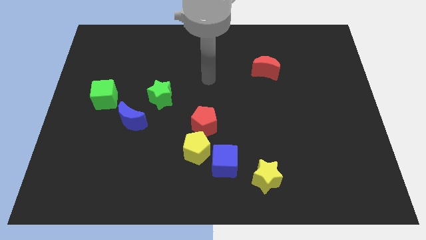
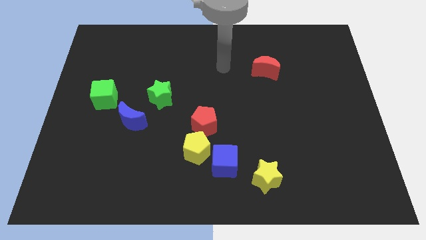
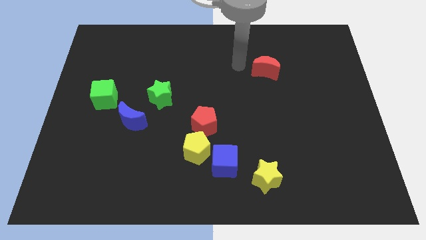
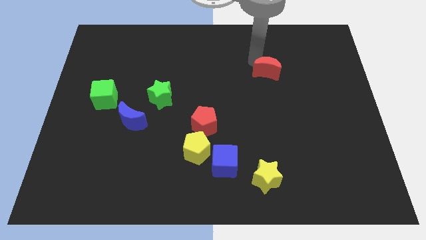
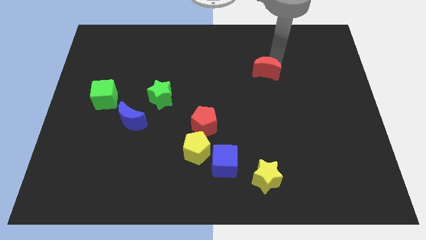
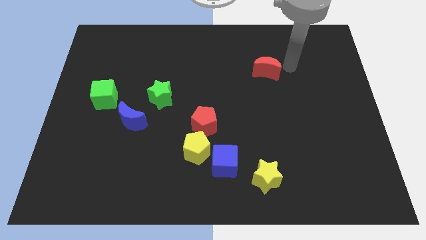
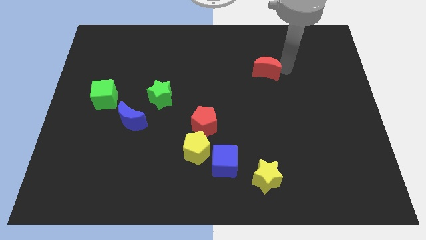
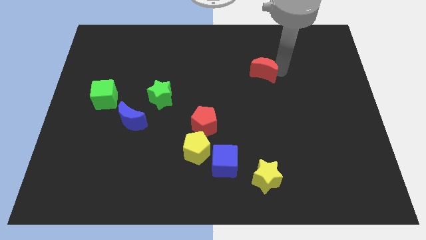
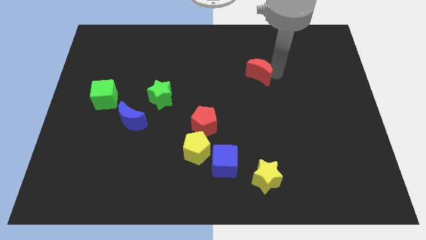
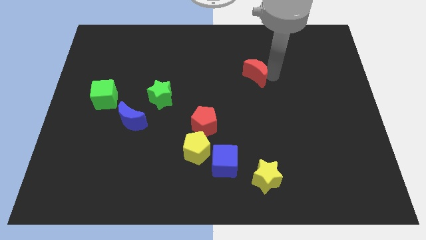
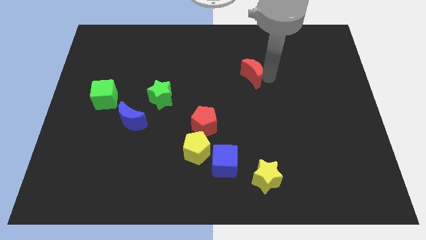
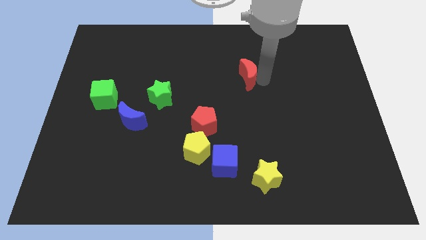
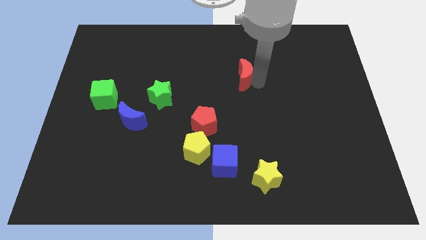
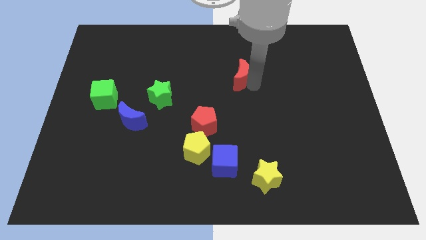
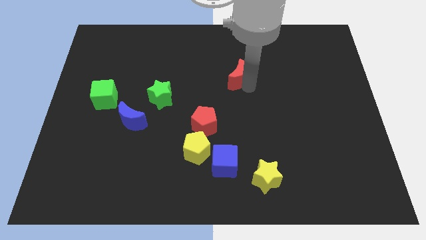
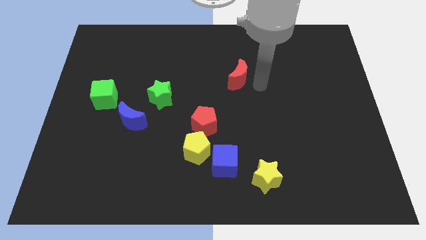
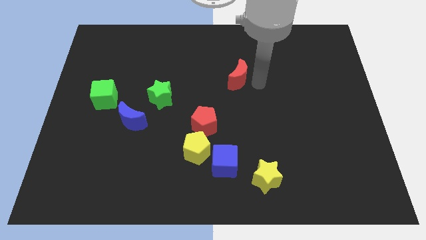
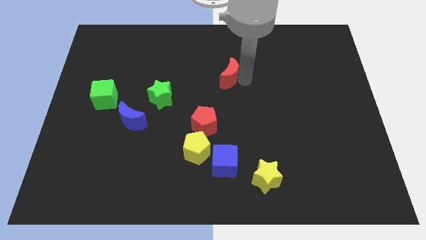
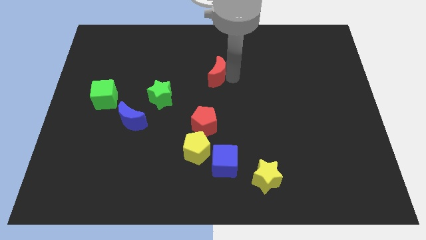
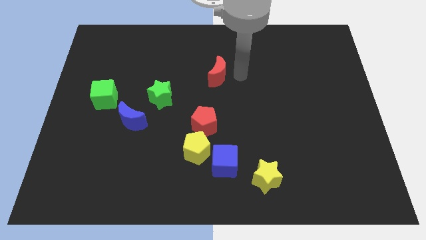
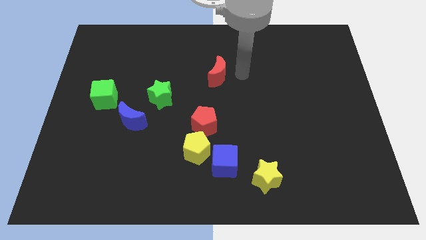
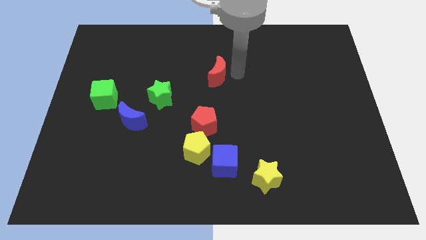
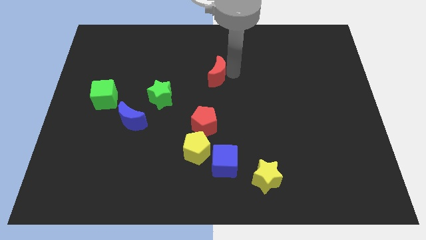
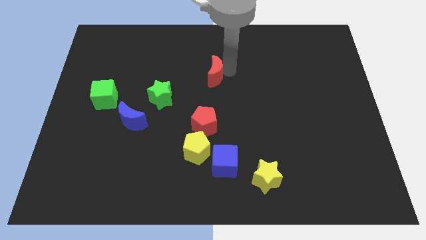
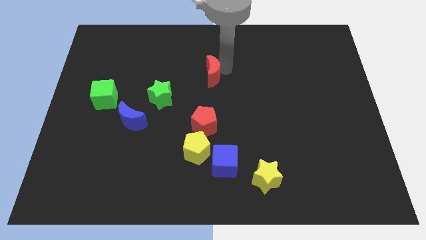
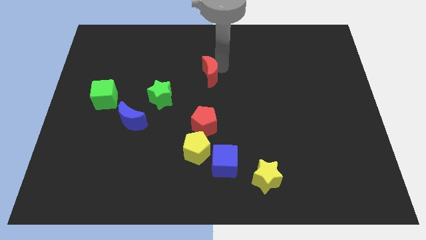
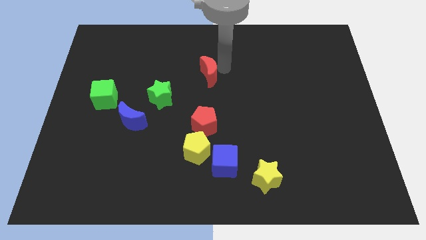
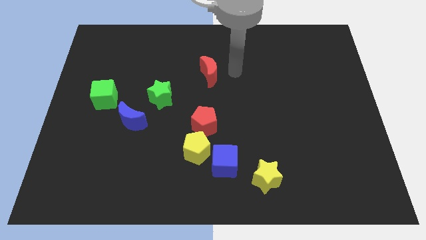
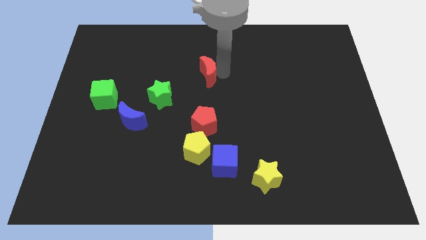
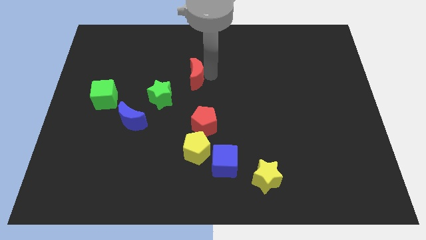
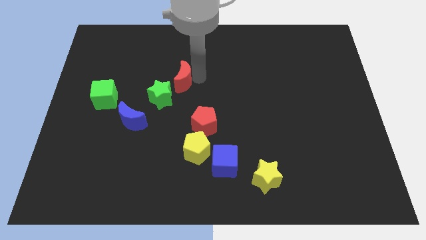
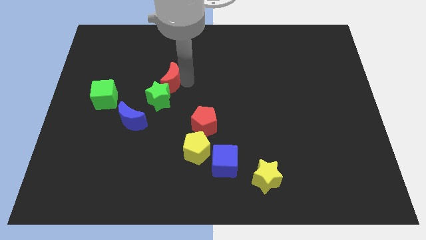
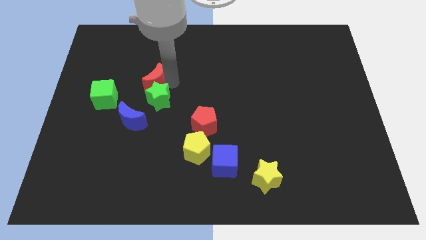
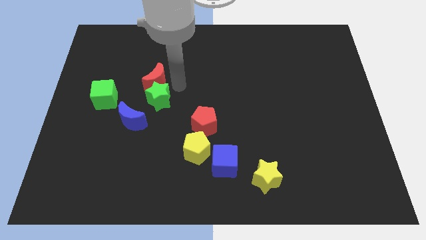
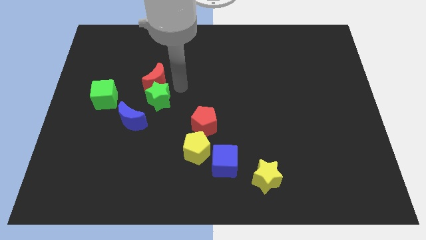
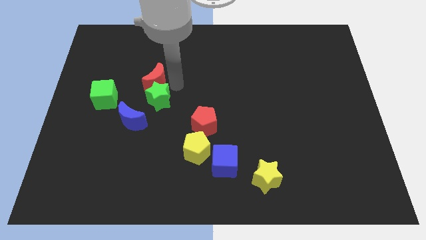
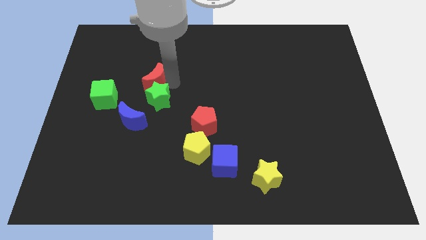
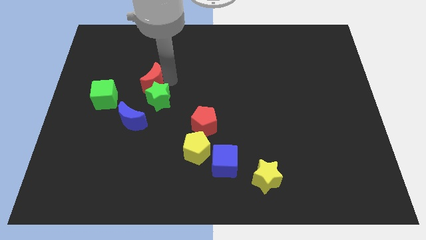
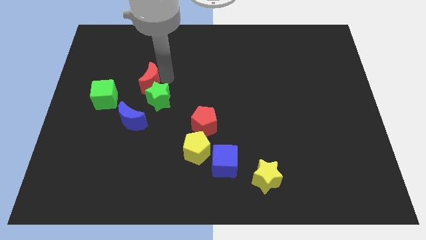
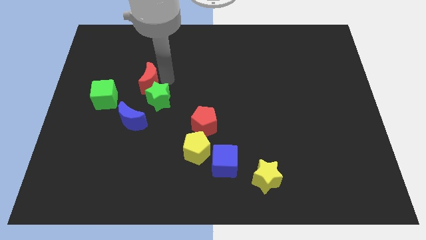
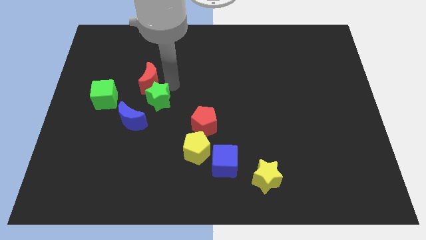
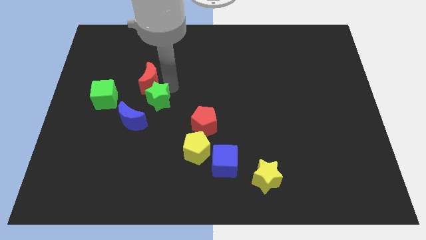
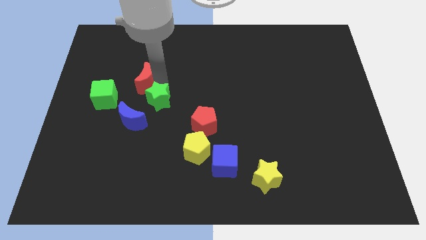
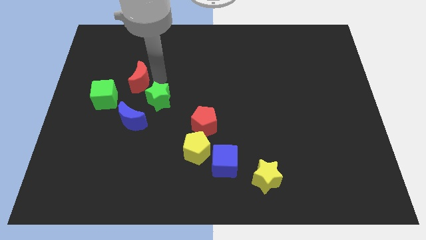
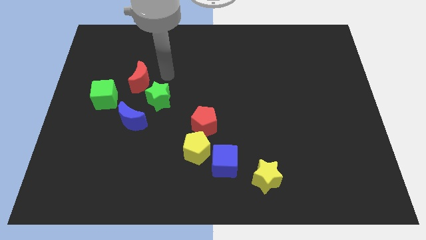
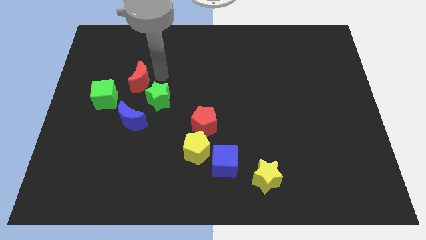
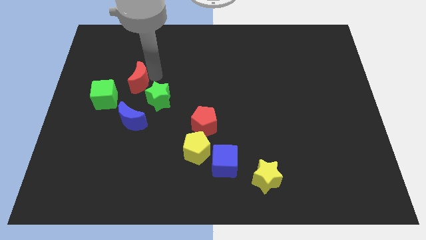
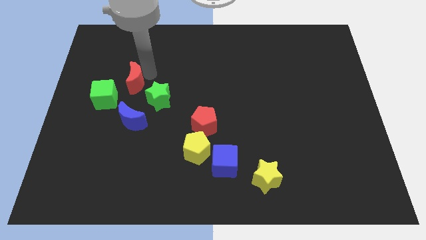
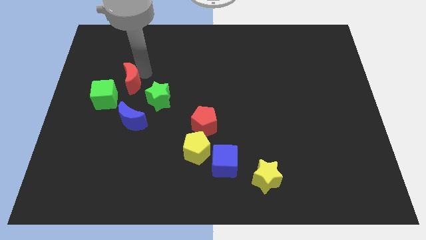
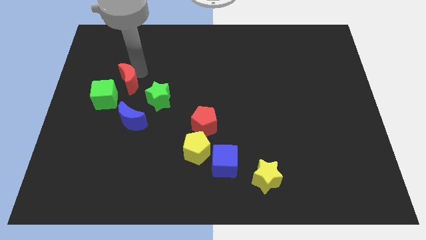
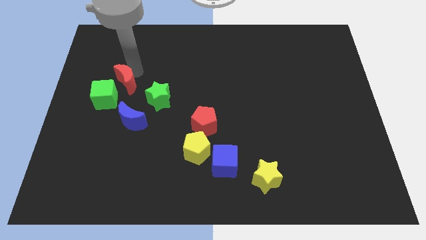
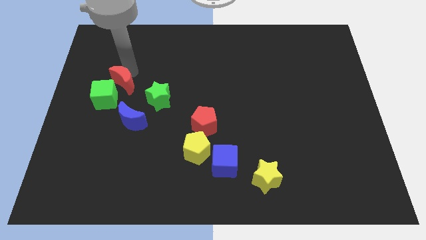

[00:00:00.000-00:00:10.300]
put the red moon next to the green cube

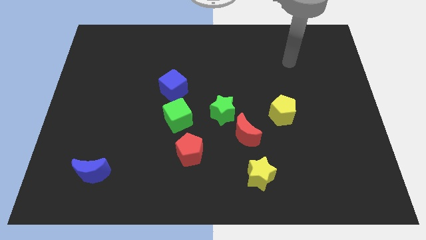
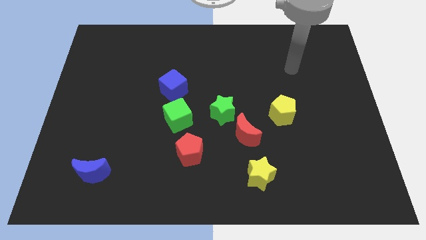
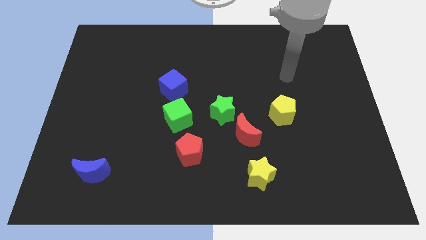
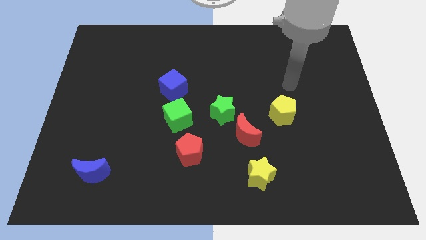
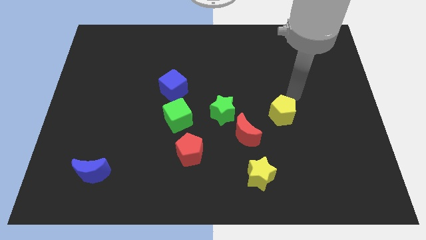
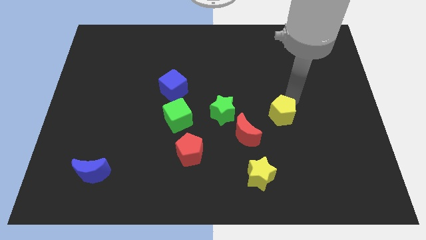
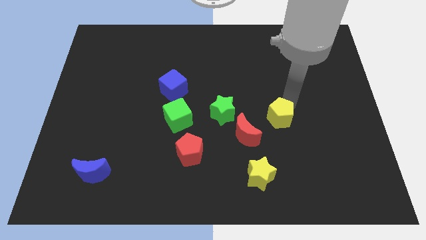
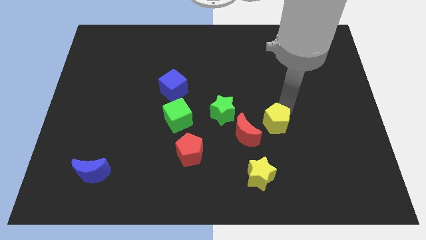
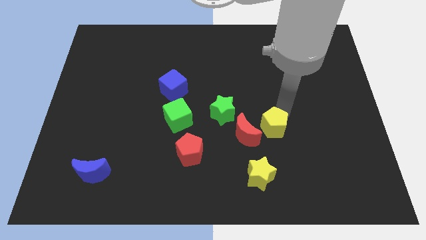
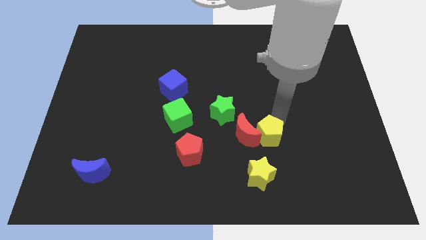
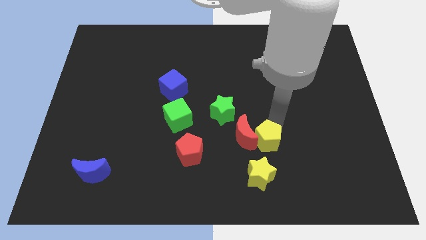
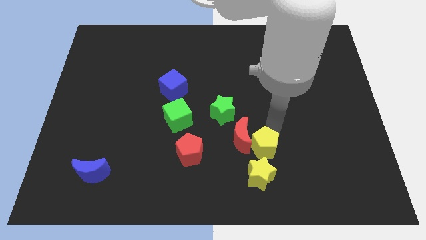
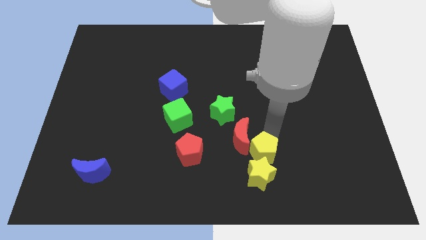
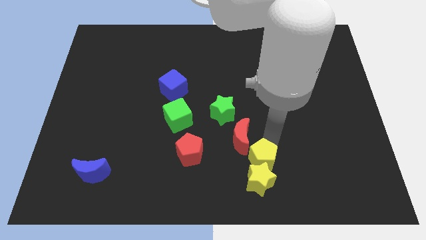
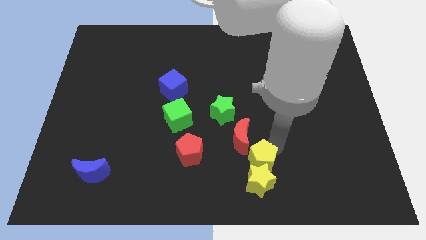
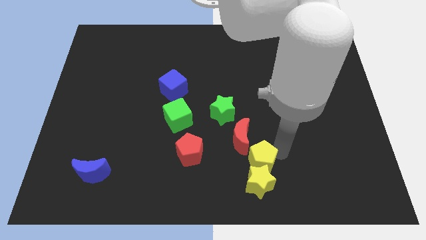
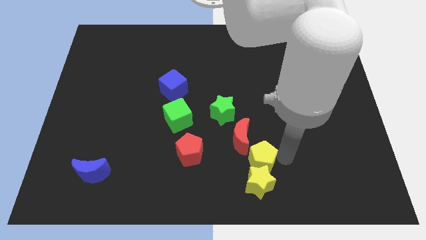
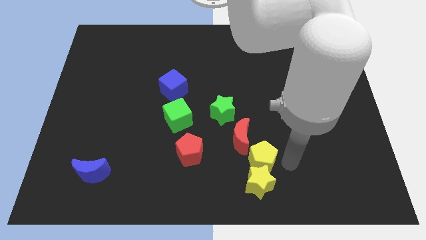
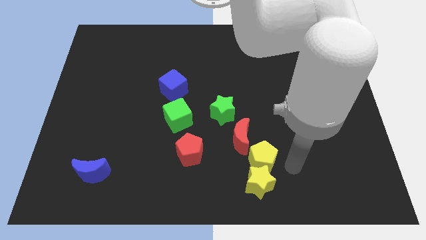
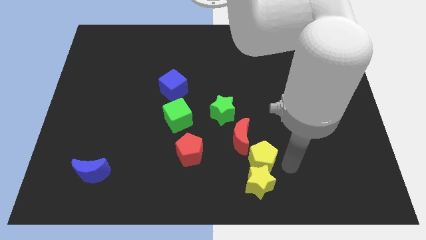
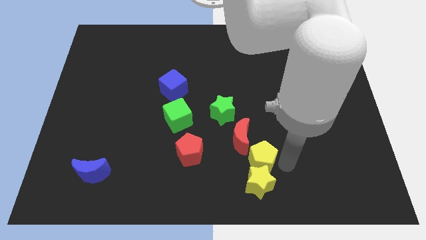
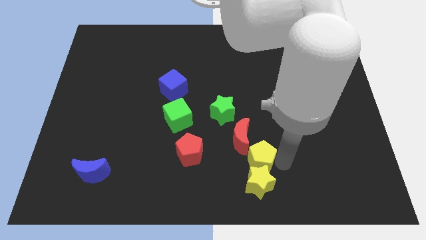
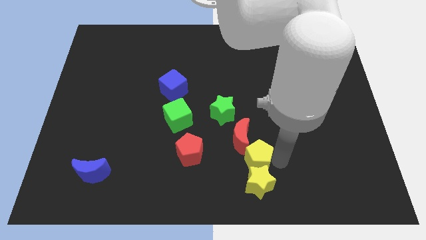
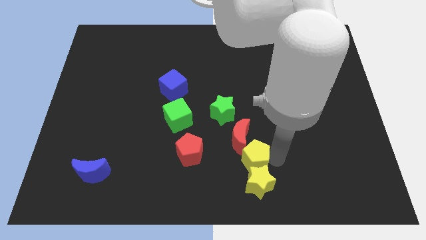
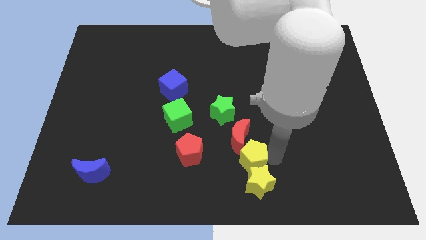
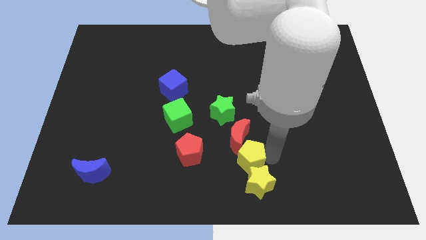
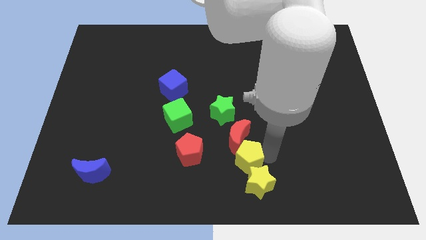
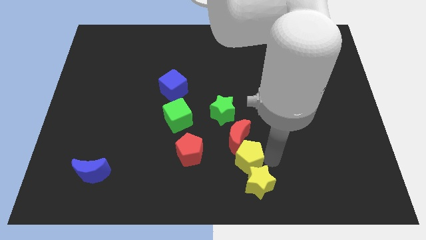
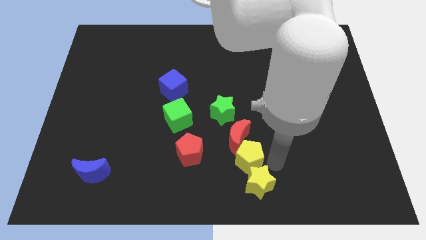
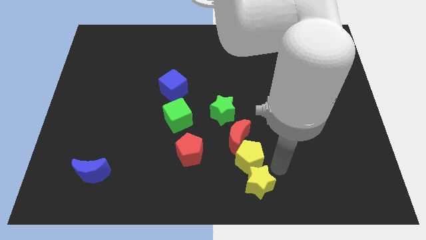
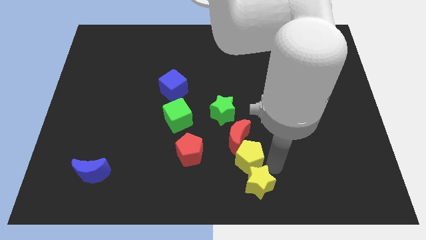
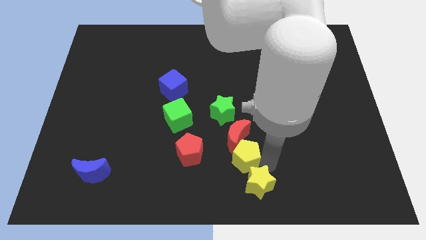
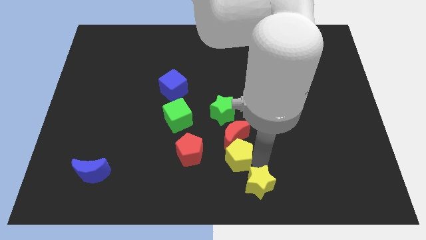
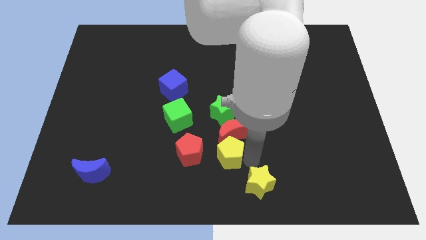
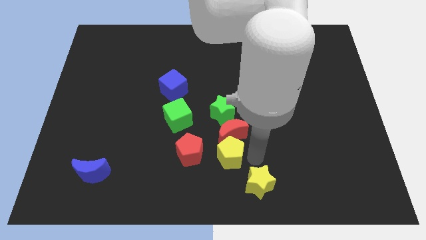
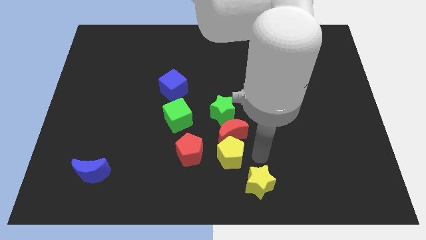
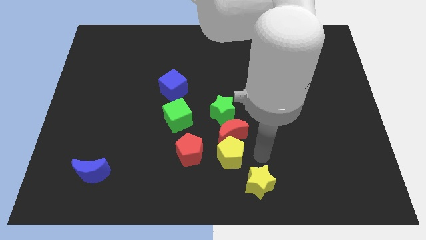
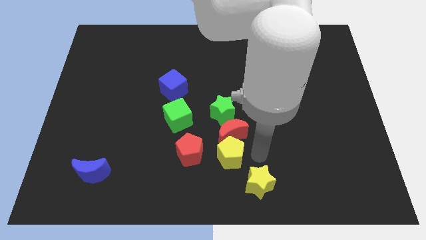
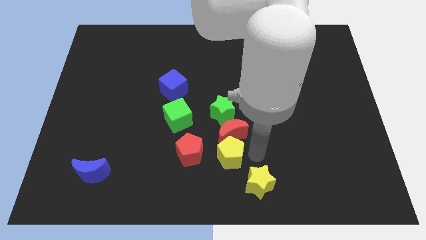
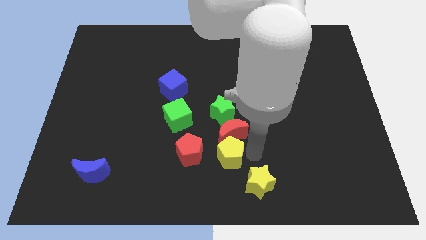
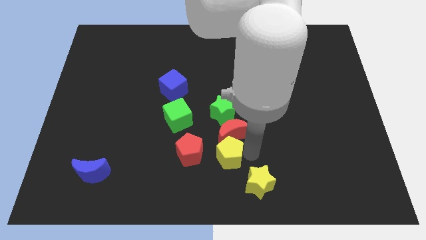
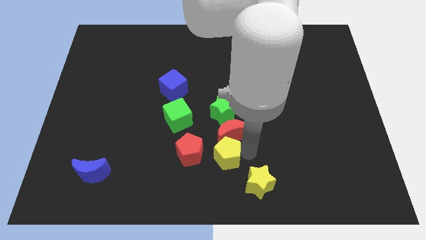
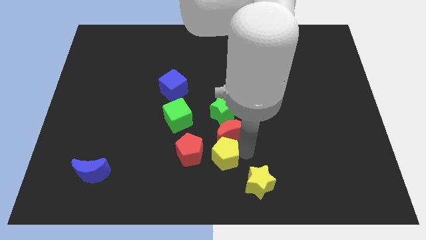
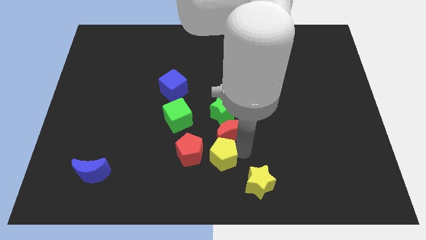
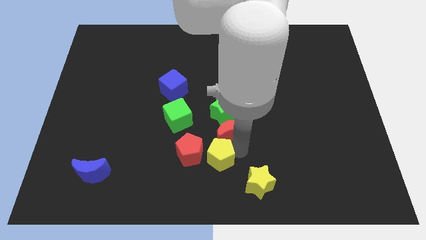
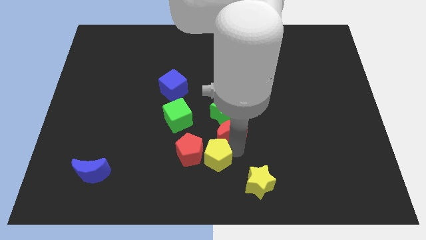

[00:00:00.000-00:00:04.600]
push the yellow pentagon close to the red pentagon
